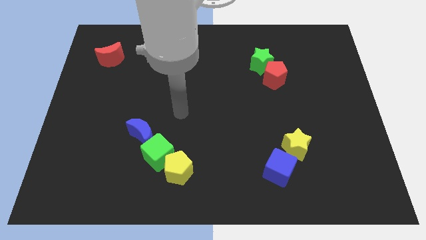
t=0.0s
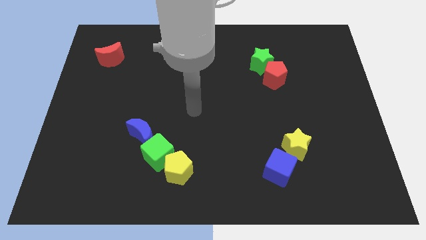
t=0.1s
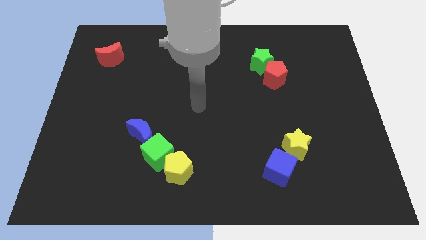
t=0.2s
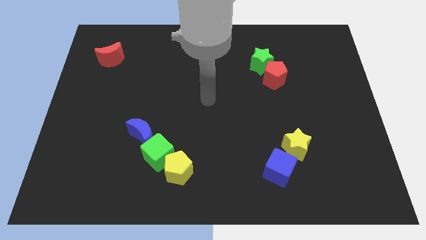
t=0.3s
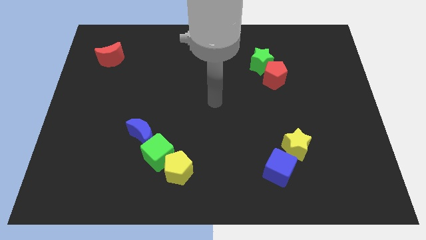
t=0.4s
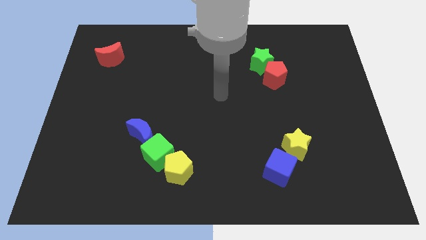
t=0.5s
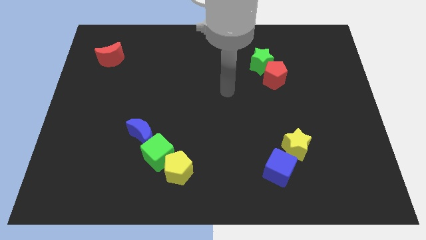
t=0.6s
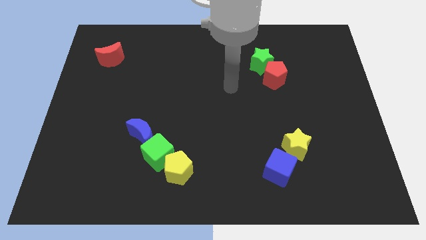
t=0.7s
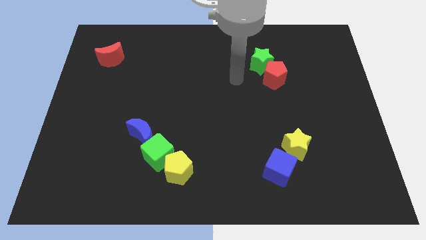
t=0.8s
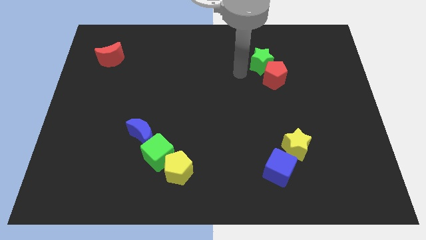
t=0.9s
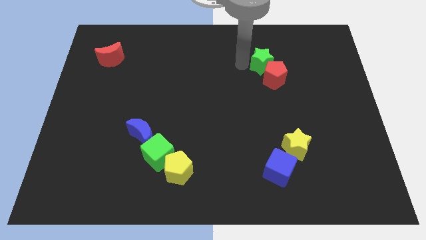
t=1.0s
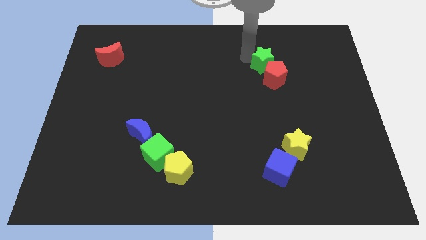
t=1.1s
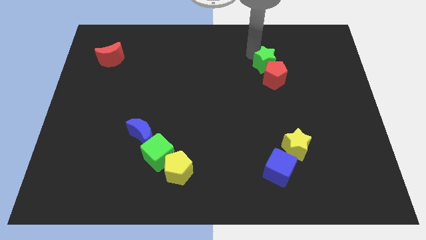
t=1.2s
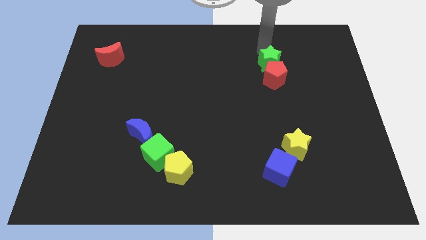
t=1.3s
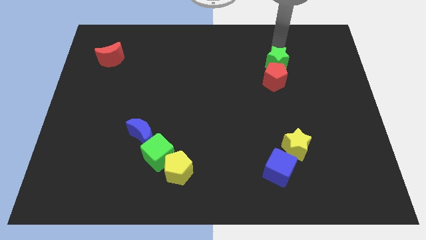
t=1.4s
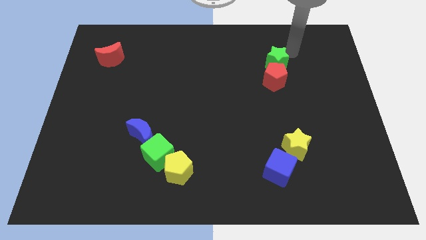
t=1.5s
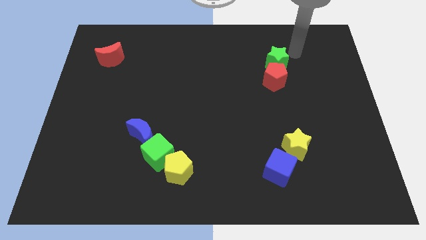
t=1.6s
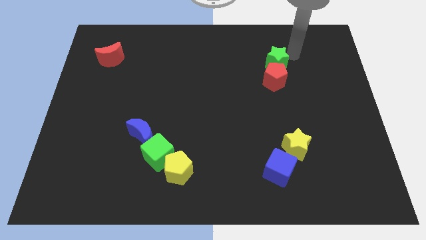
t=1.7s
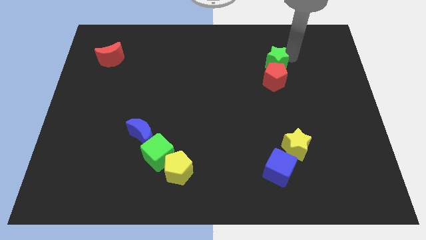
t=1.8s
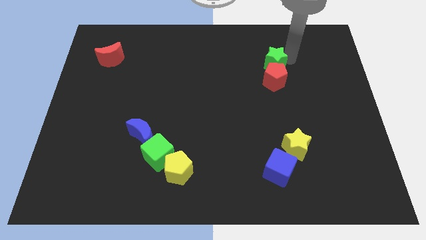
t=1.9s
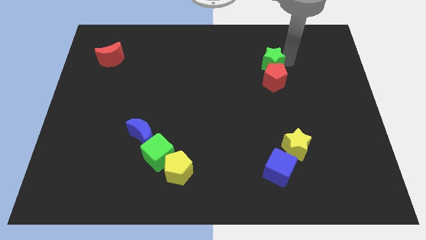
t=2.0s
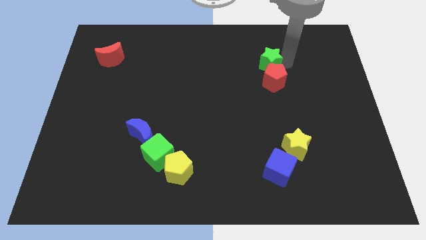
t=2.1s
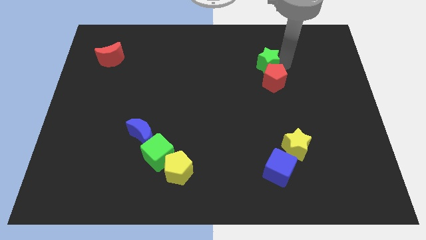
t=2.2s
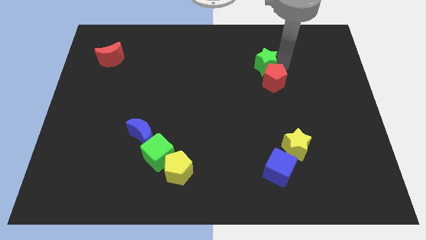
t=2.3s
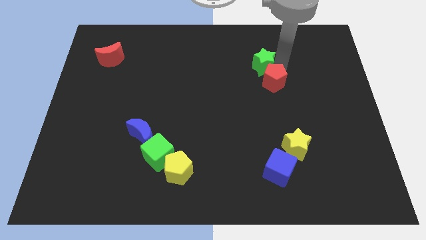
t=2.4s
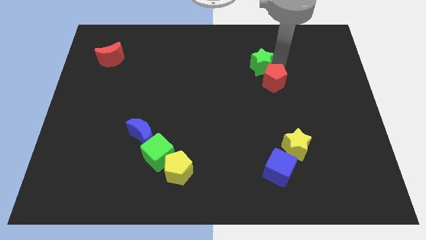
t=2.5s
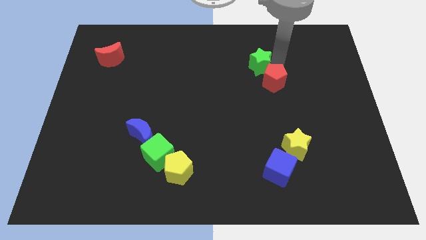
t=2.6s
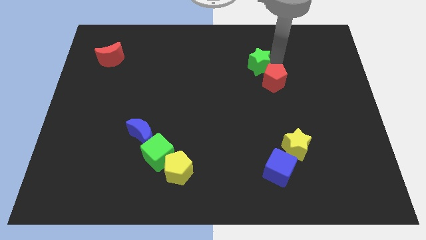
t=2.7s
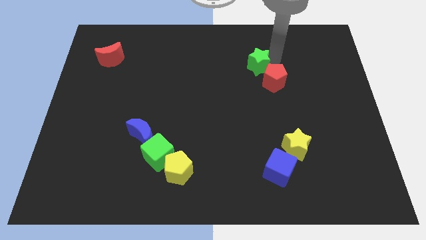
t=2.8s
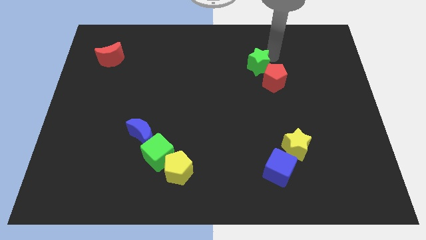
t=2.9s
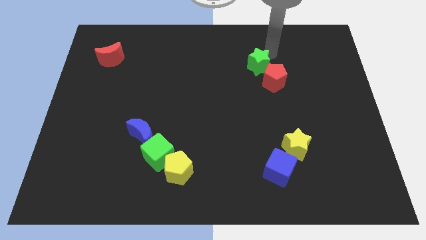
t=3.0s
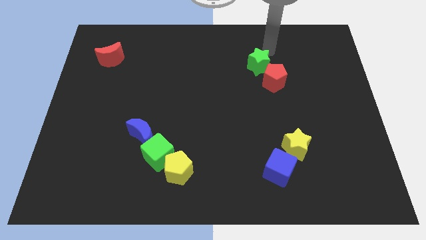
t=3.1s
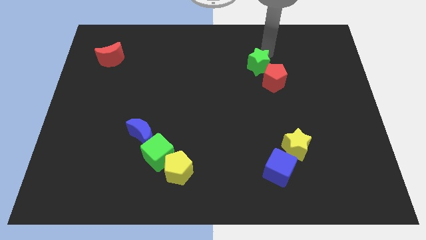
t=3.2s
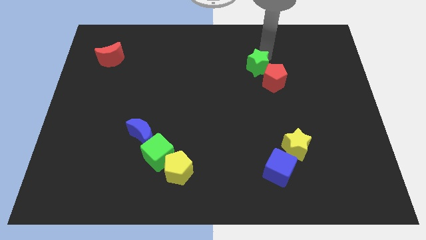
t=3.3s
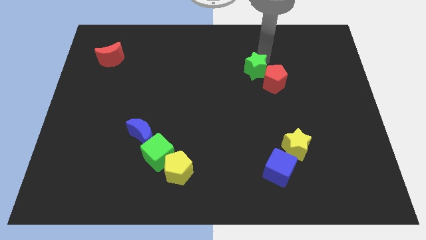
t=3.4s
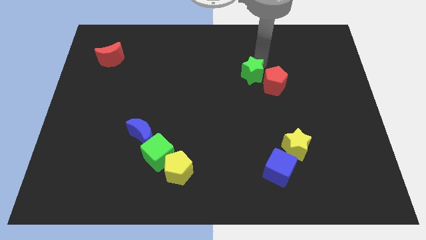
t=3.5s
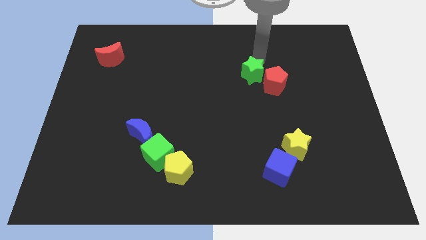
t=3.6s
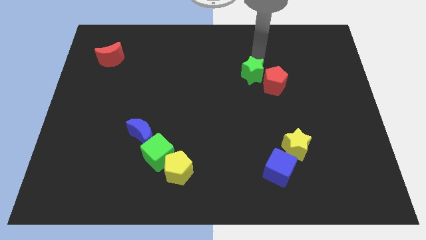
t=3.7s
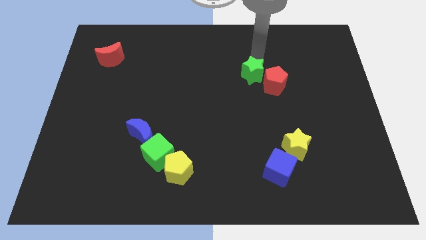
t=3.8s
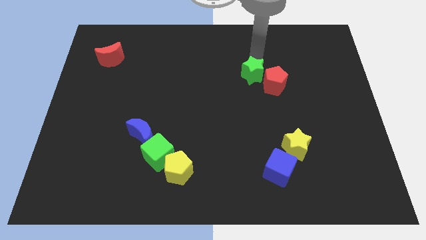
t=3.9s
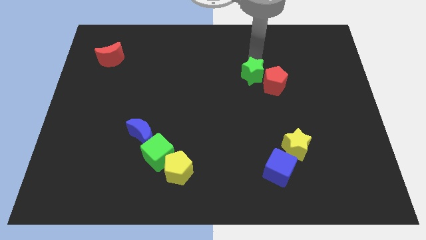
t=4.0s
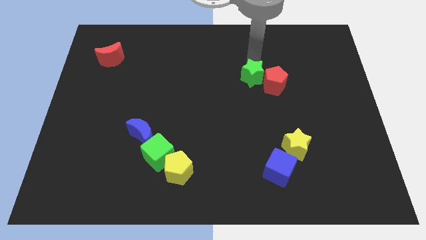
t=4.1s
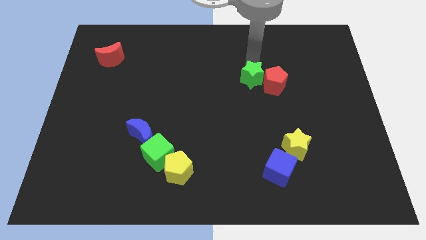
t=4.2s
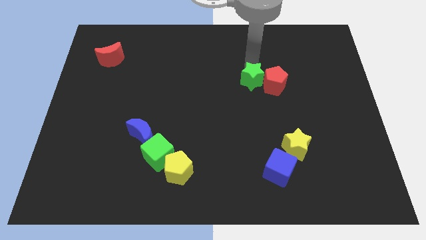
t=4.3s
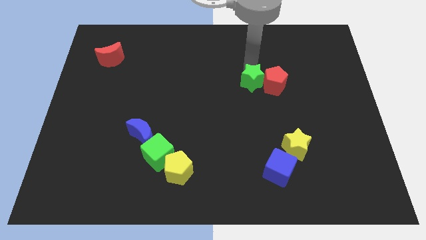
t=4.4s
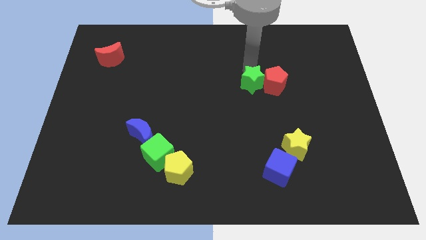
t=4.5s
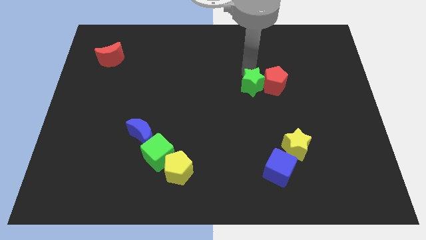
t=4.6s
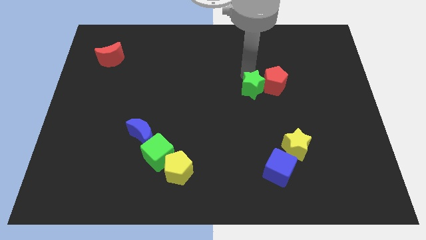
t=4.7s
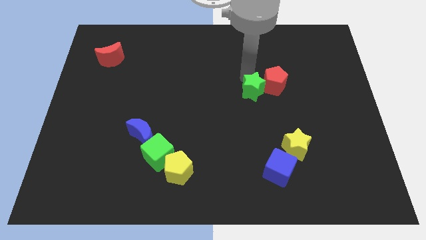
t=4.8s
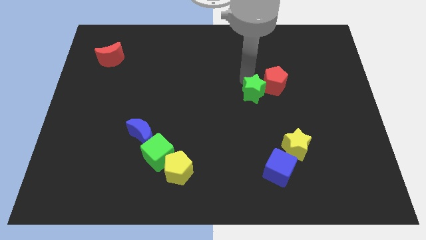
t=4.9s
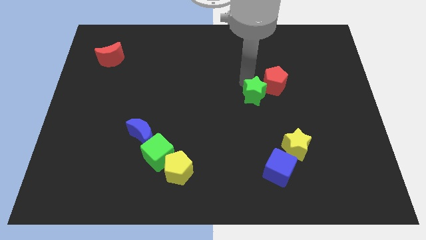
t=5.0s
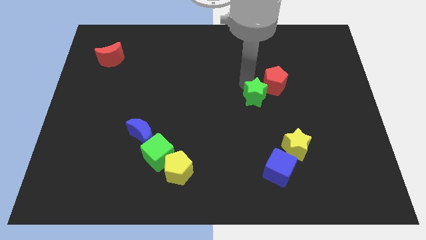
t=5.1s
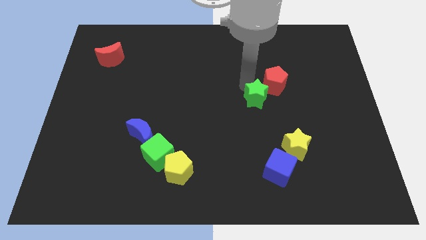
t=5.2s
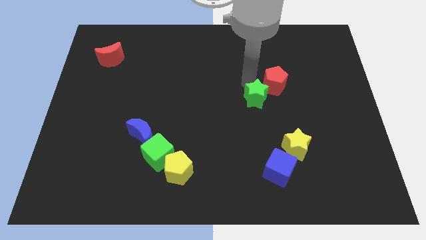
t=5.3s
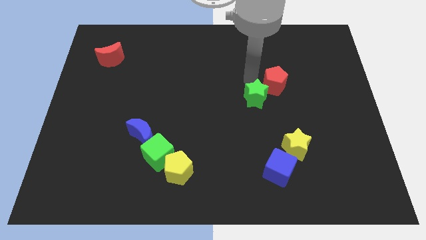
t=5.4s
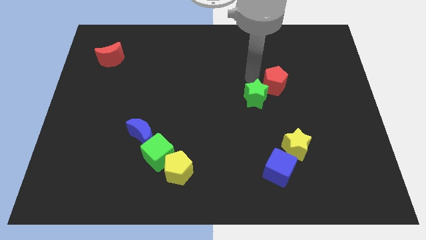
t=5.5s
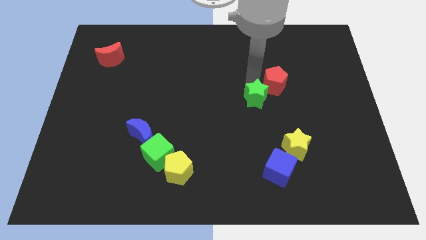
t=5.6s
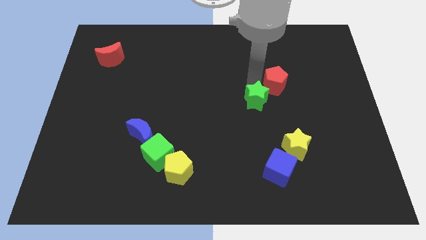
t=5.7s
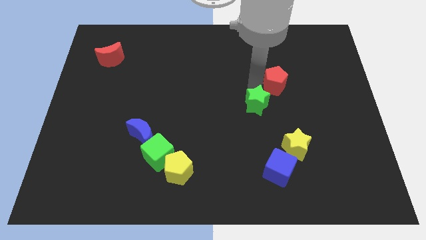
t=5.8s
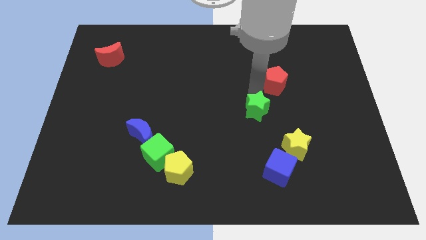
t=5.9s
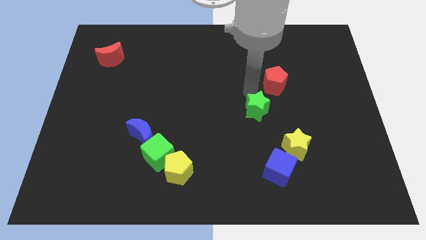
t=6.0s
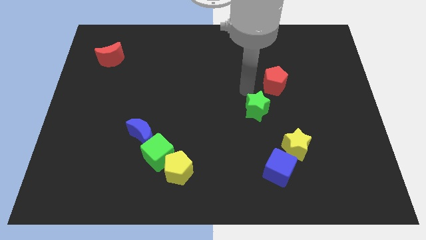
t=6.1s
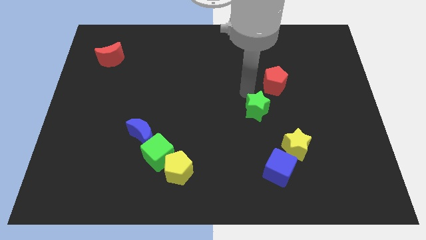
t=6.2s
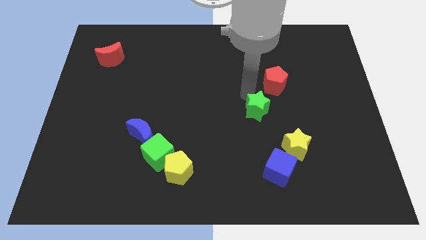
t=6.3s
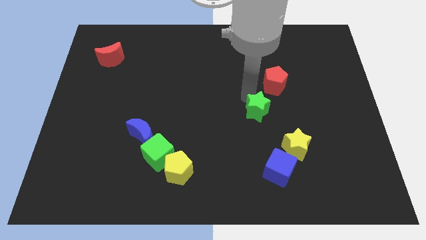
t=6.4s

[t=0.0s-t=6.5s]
slide the green star to the top left side of the yellow star

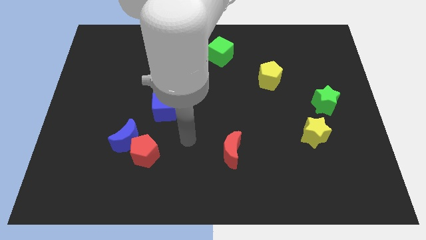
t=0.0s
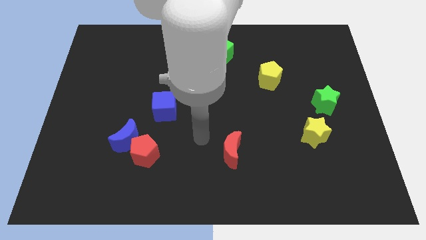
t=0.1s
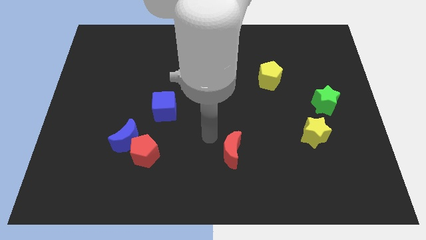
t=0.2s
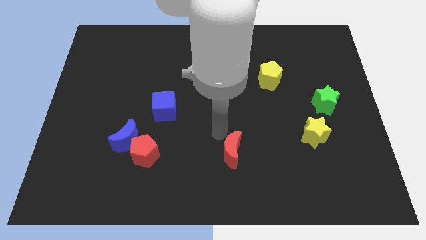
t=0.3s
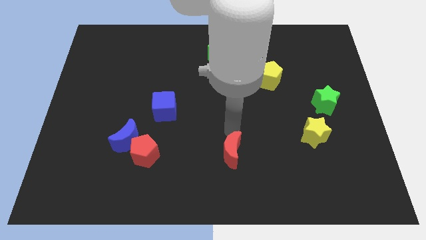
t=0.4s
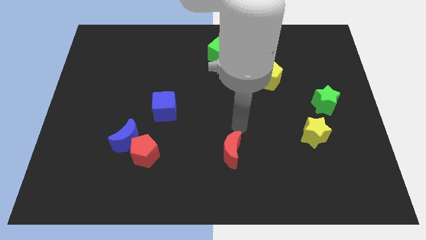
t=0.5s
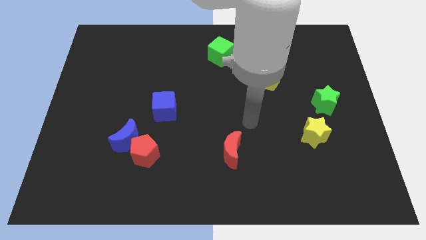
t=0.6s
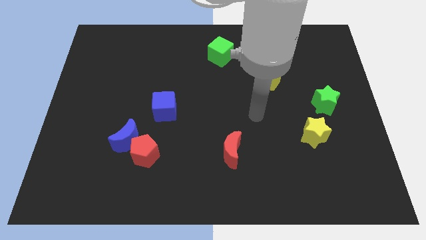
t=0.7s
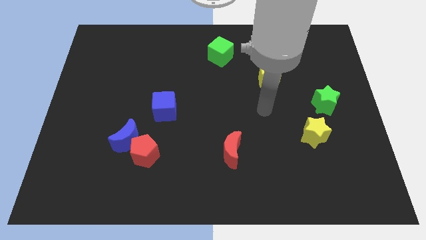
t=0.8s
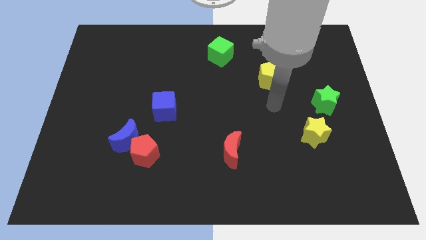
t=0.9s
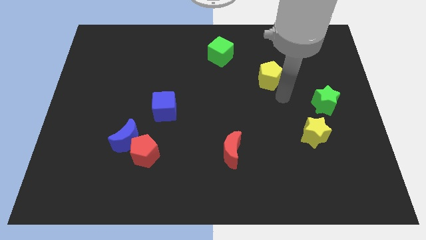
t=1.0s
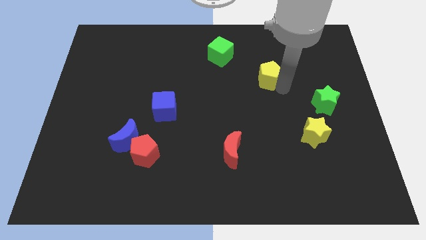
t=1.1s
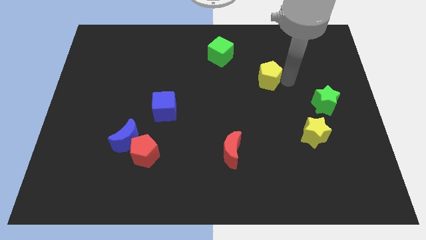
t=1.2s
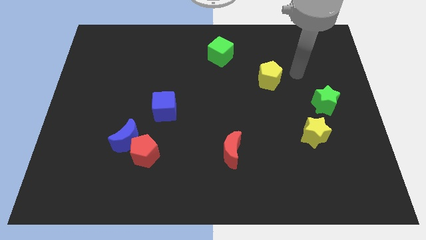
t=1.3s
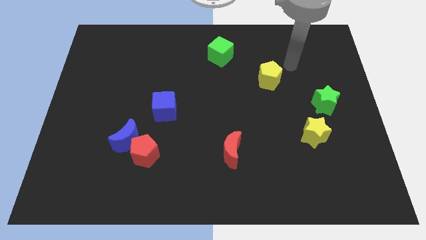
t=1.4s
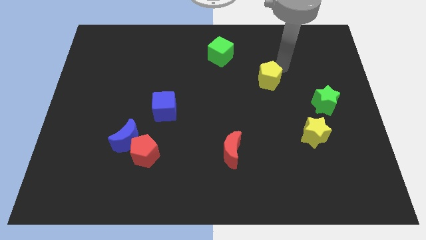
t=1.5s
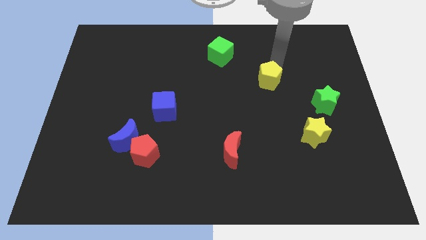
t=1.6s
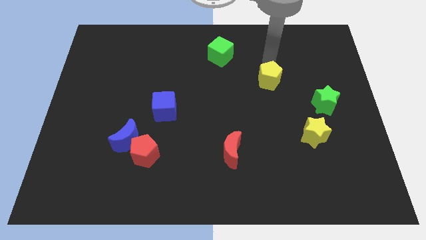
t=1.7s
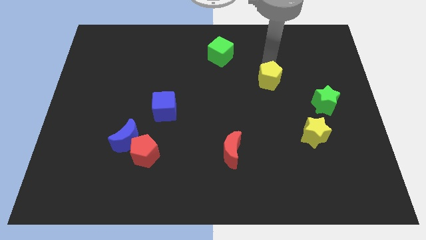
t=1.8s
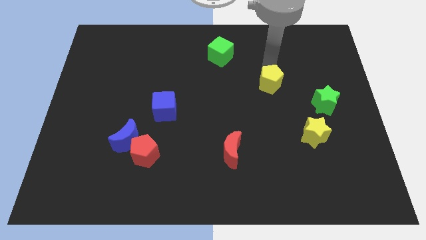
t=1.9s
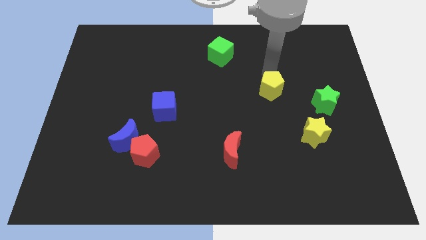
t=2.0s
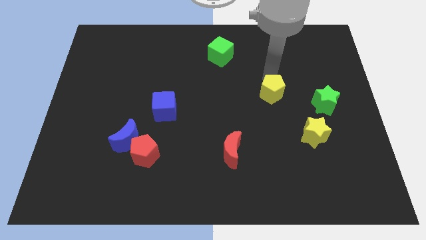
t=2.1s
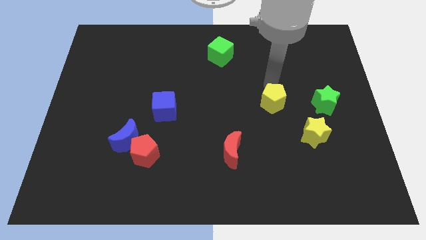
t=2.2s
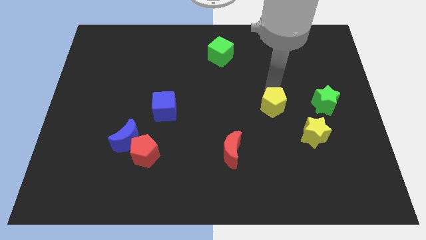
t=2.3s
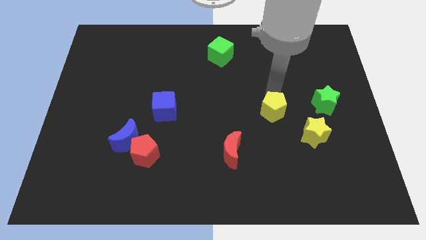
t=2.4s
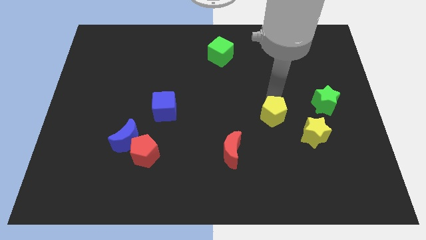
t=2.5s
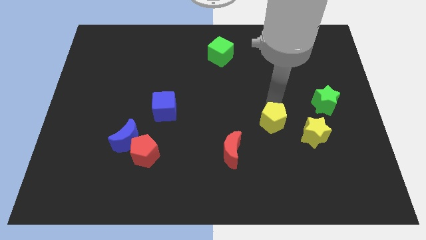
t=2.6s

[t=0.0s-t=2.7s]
move the yellow pentagon just left of the yellow star
